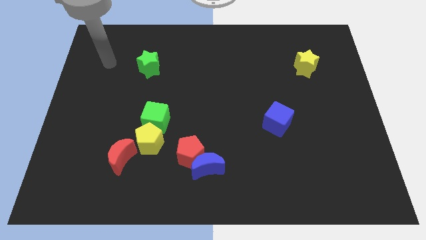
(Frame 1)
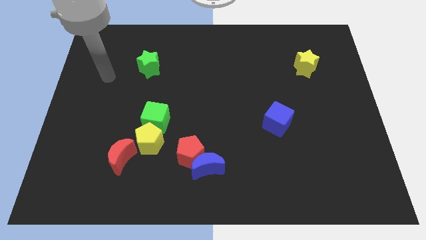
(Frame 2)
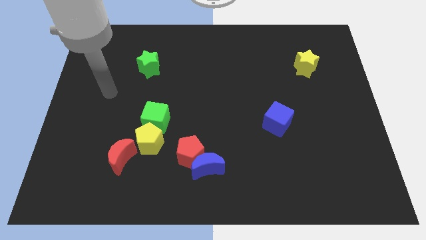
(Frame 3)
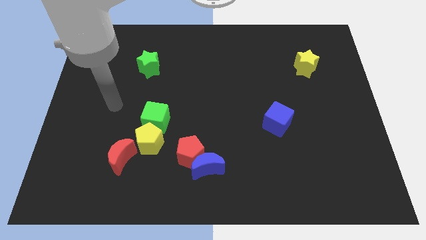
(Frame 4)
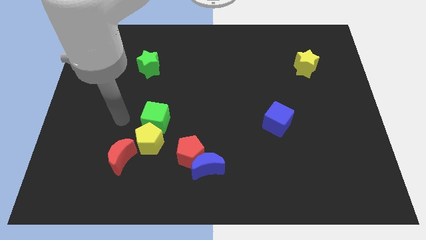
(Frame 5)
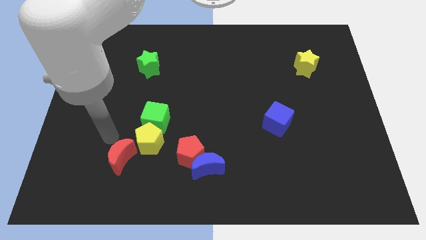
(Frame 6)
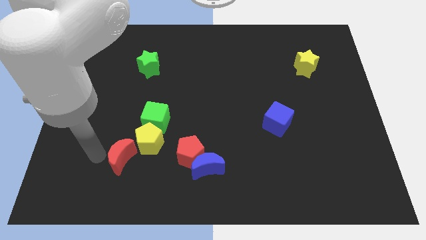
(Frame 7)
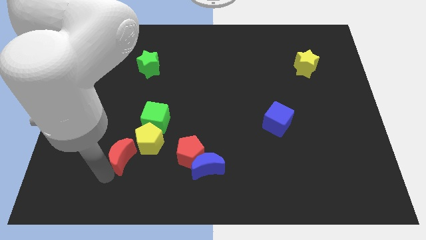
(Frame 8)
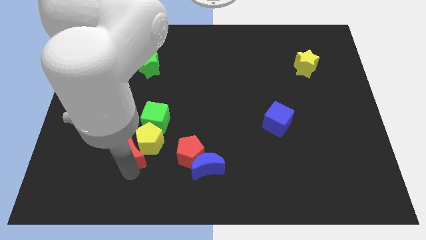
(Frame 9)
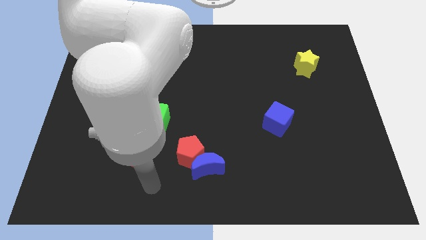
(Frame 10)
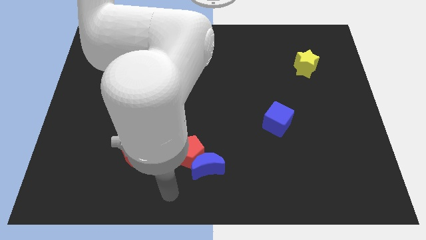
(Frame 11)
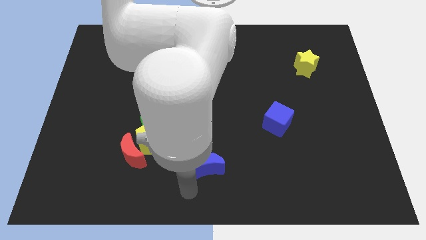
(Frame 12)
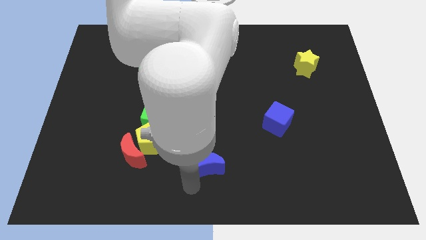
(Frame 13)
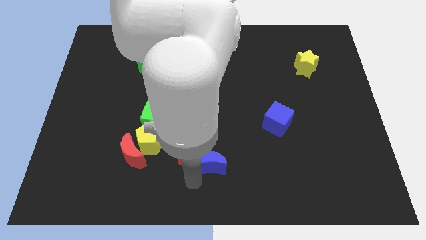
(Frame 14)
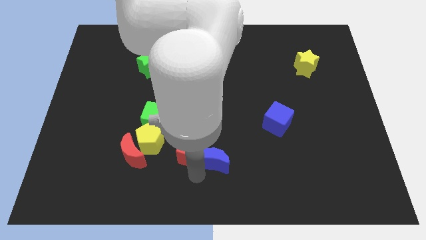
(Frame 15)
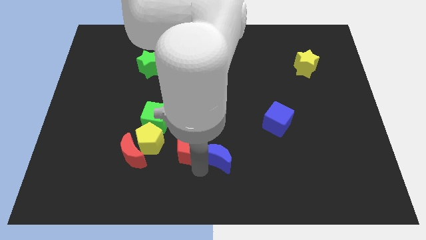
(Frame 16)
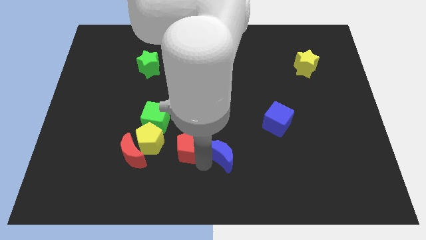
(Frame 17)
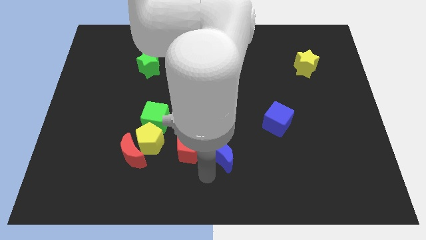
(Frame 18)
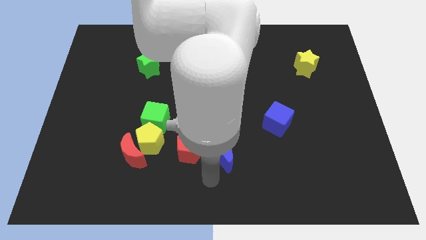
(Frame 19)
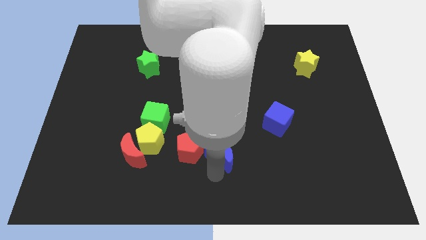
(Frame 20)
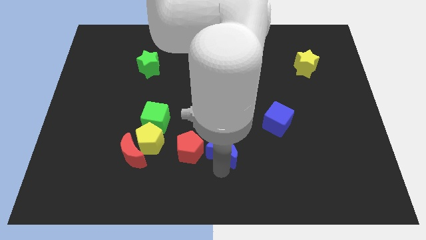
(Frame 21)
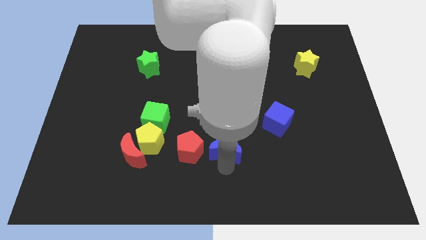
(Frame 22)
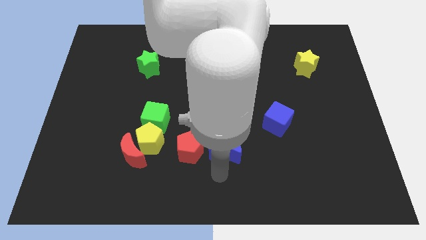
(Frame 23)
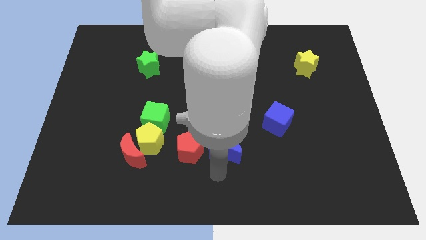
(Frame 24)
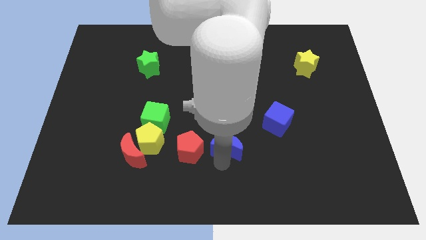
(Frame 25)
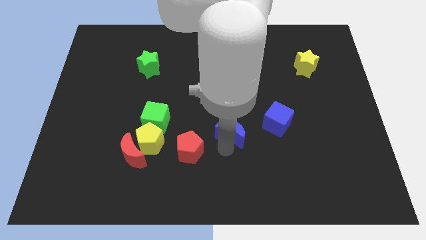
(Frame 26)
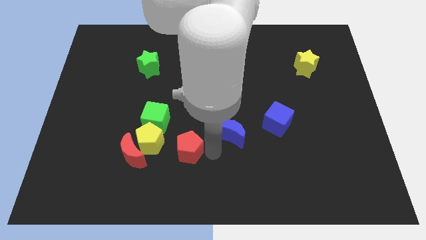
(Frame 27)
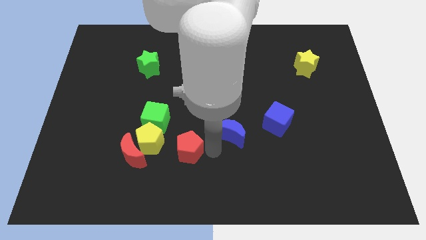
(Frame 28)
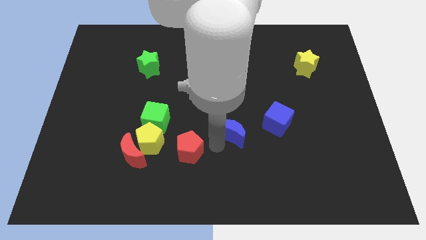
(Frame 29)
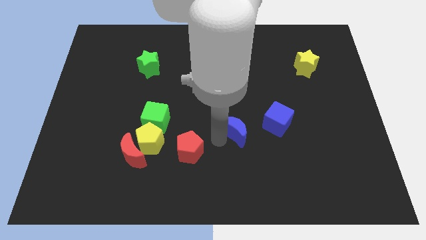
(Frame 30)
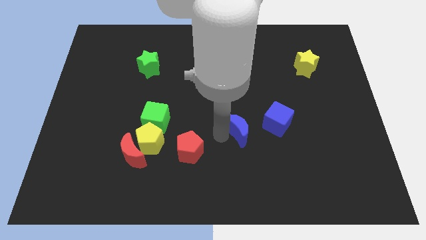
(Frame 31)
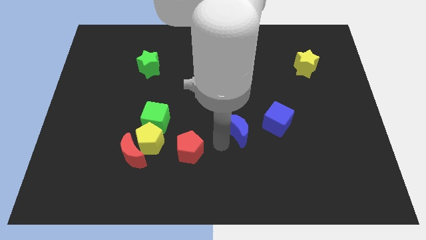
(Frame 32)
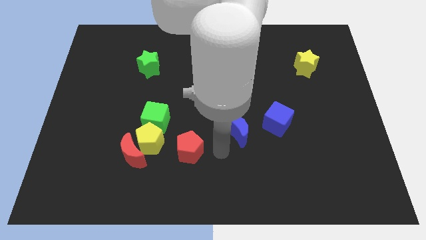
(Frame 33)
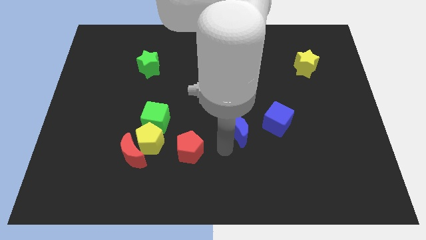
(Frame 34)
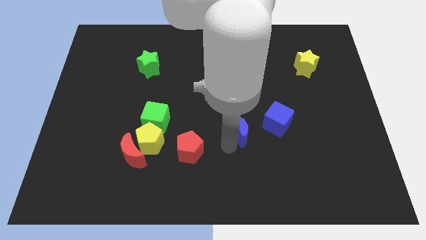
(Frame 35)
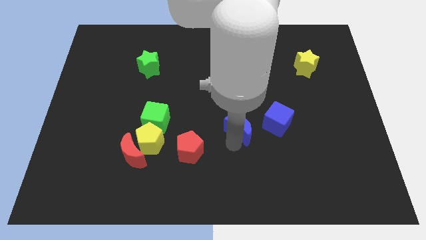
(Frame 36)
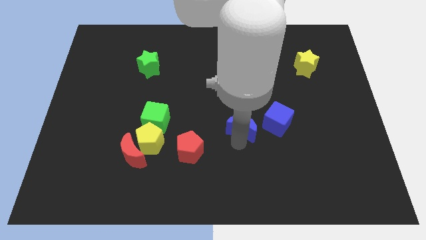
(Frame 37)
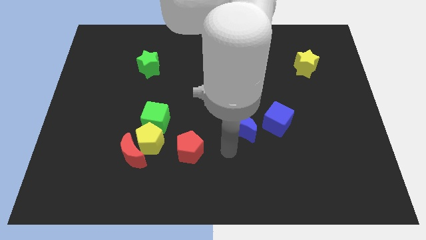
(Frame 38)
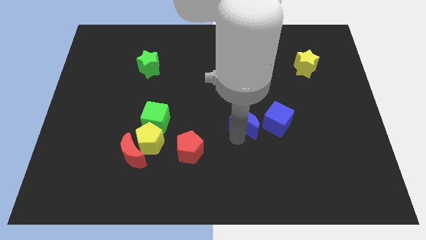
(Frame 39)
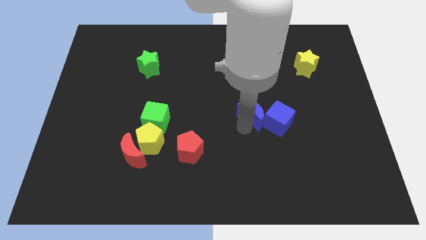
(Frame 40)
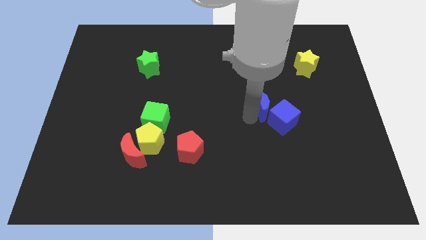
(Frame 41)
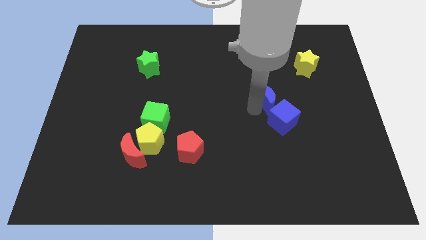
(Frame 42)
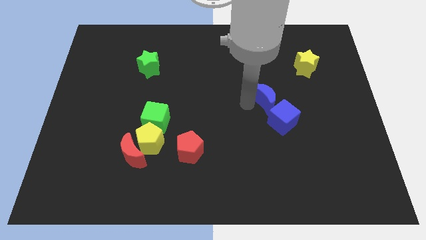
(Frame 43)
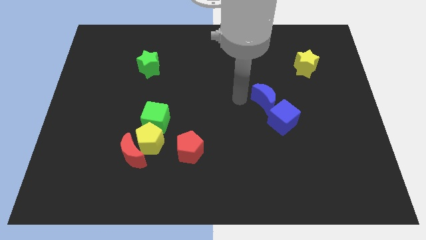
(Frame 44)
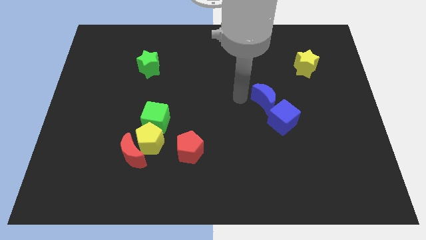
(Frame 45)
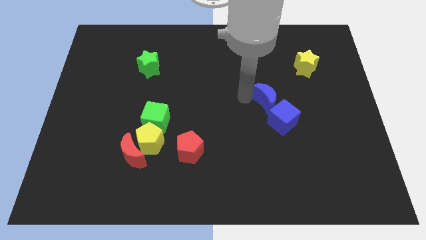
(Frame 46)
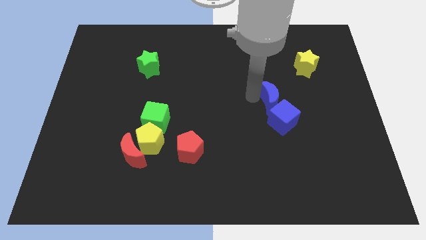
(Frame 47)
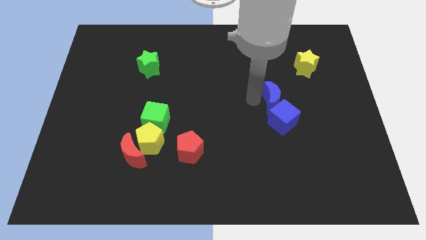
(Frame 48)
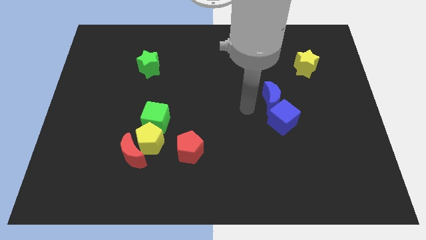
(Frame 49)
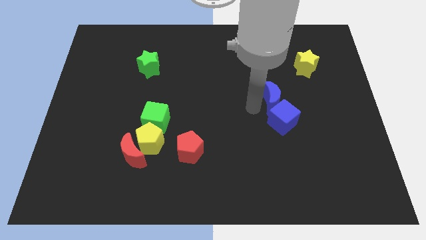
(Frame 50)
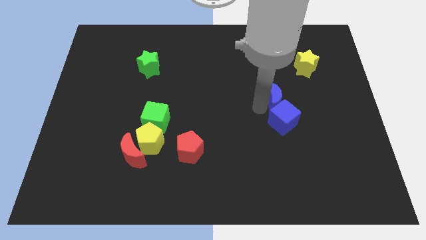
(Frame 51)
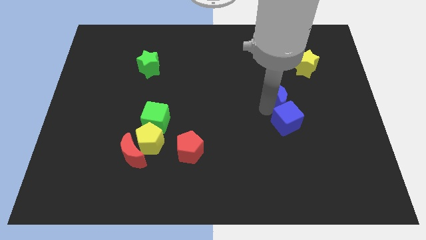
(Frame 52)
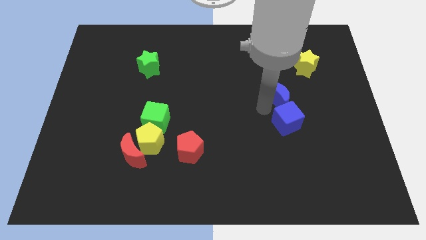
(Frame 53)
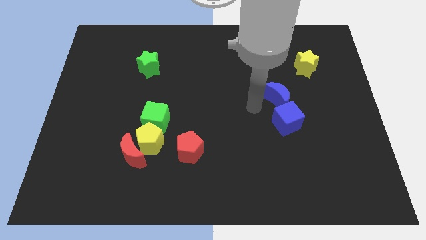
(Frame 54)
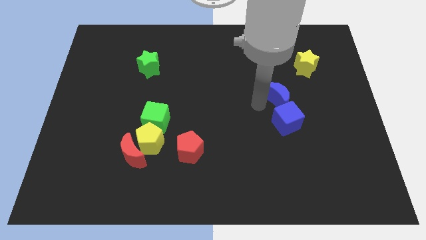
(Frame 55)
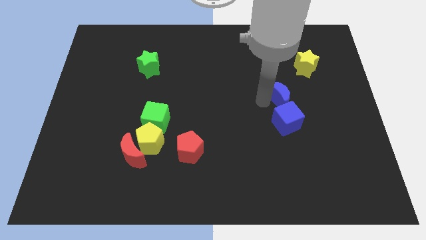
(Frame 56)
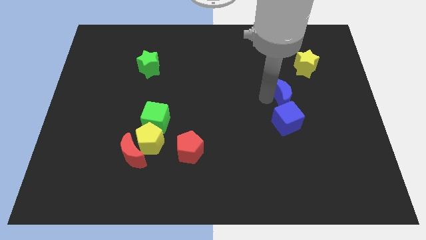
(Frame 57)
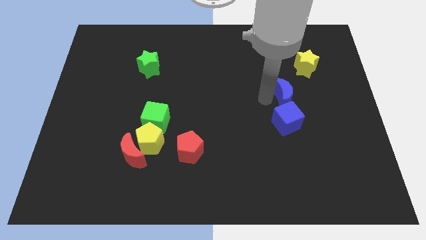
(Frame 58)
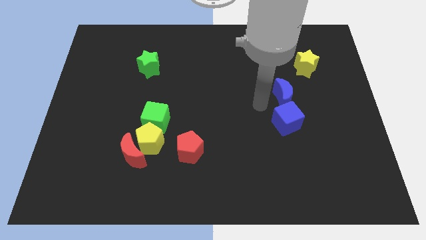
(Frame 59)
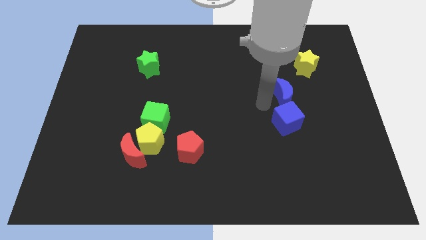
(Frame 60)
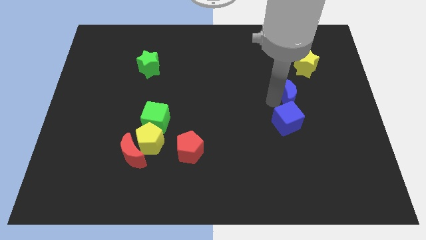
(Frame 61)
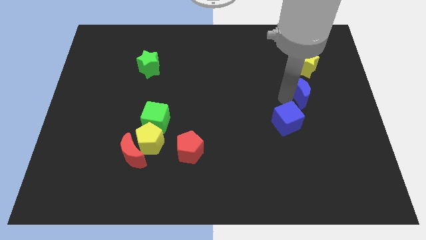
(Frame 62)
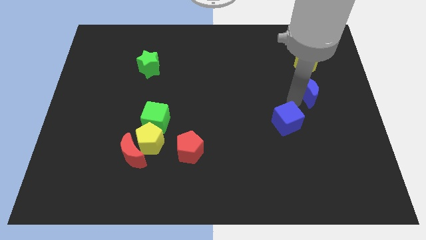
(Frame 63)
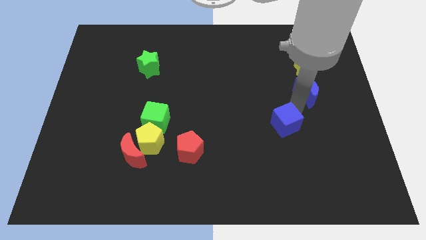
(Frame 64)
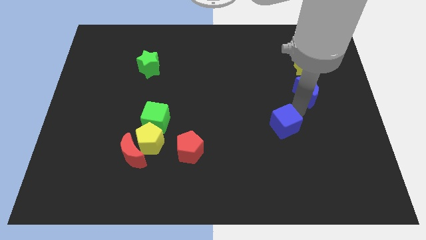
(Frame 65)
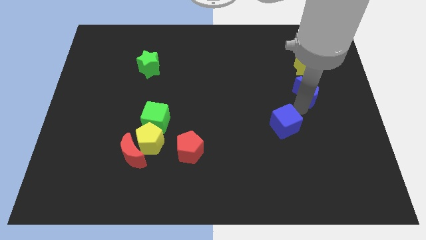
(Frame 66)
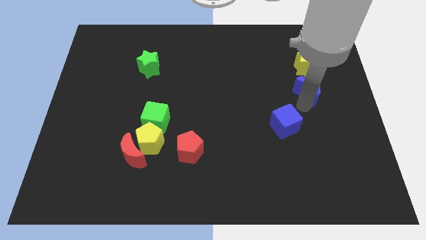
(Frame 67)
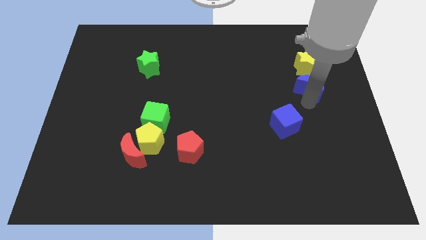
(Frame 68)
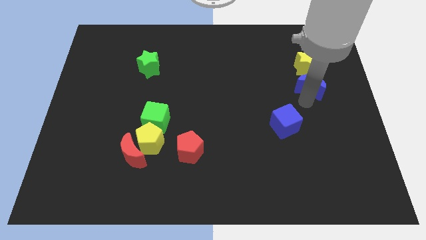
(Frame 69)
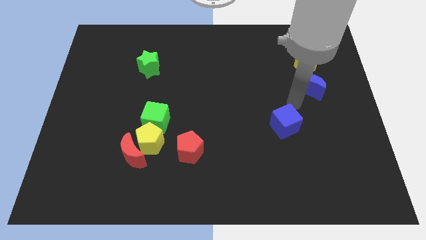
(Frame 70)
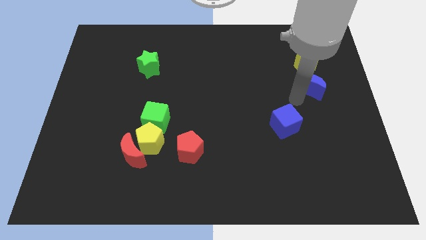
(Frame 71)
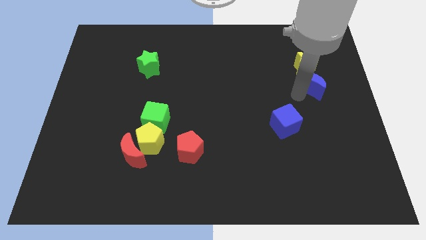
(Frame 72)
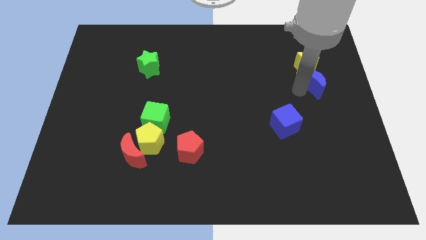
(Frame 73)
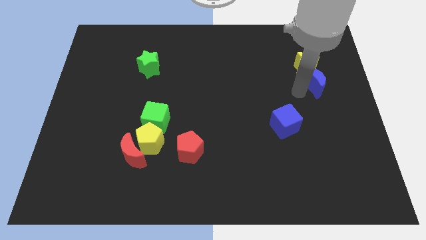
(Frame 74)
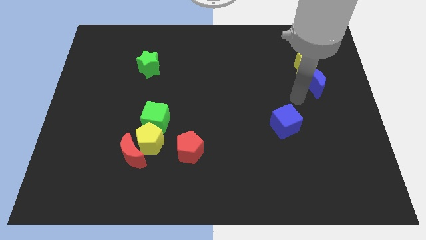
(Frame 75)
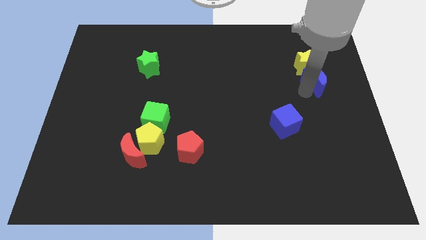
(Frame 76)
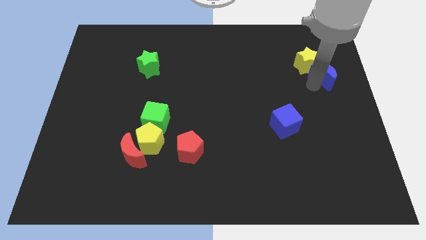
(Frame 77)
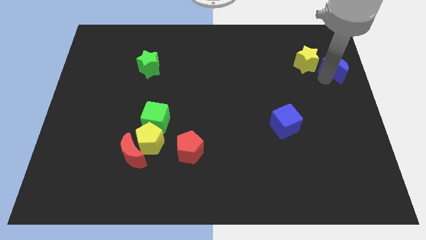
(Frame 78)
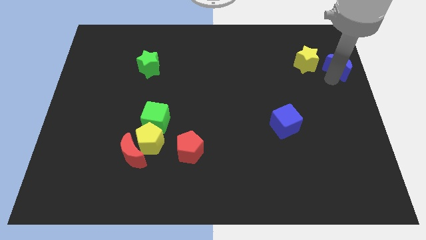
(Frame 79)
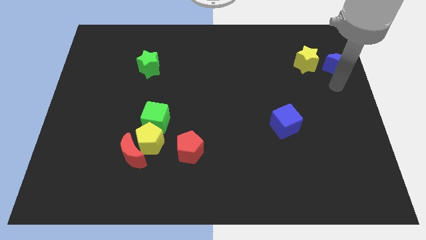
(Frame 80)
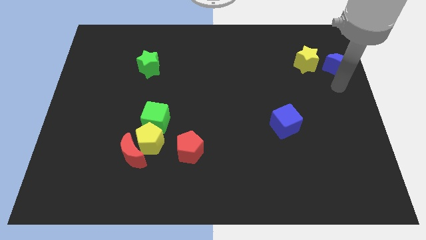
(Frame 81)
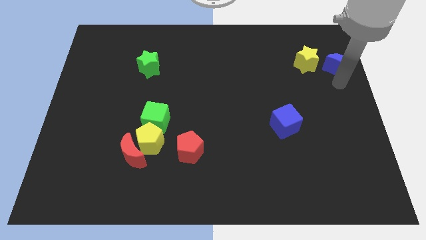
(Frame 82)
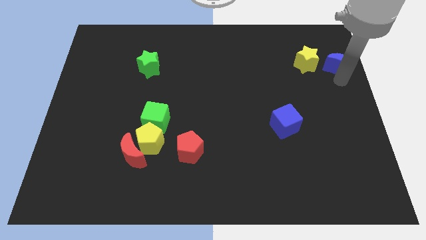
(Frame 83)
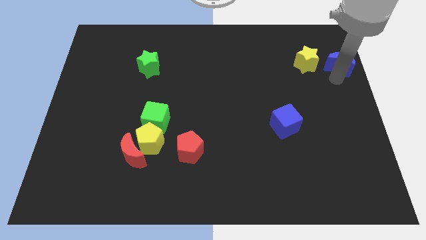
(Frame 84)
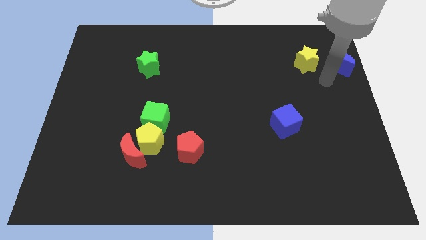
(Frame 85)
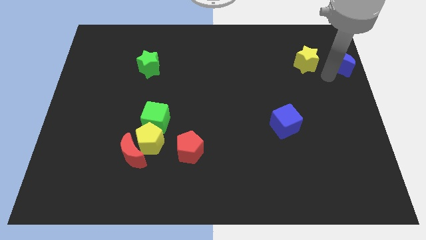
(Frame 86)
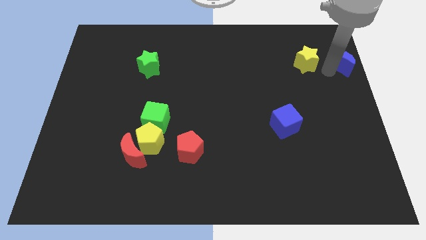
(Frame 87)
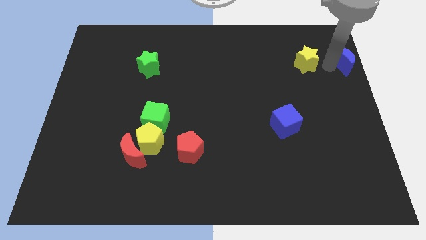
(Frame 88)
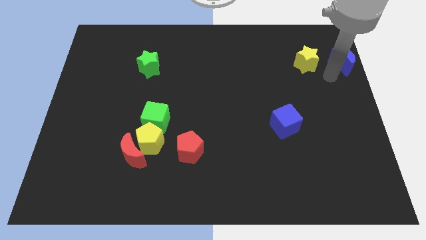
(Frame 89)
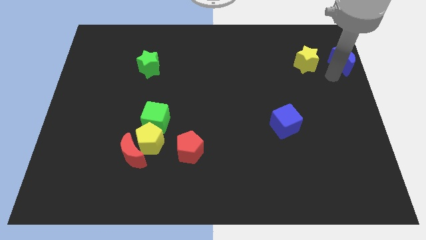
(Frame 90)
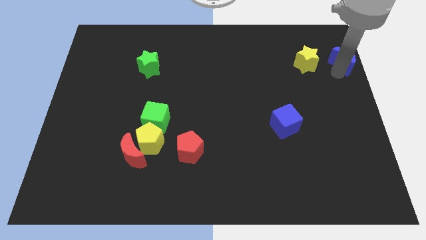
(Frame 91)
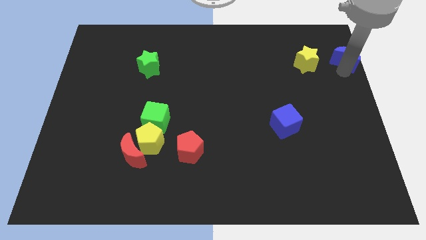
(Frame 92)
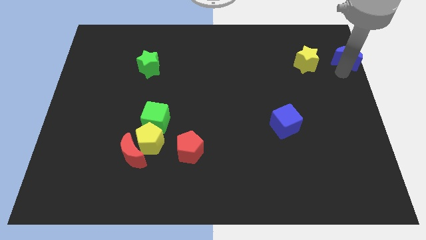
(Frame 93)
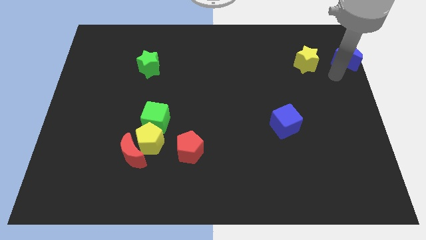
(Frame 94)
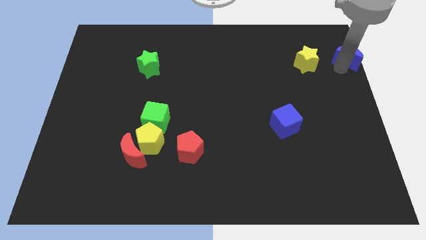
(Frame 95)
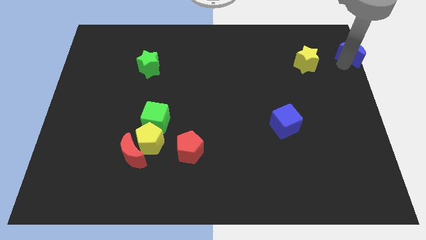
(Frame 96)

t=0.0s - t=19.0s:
put the blue moon to the top right corner
